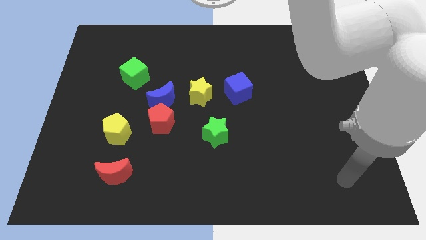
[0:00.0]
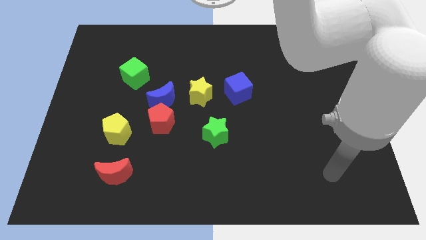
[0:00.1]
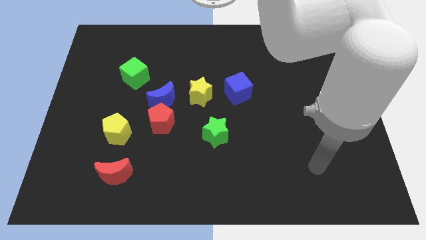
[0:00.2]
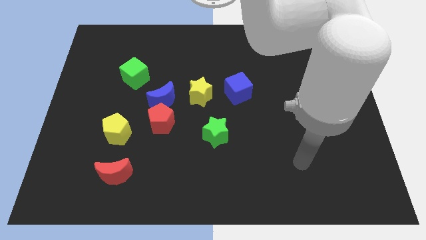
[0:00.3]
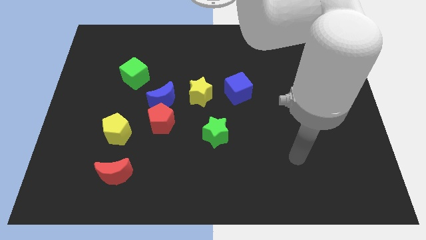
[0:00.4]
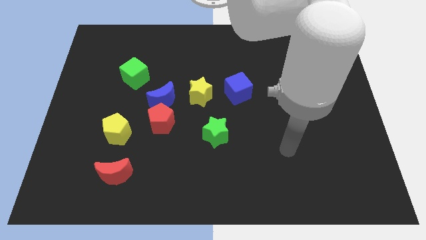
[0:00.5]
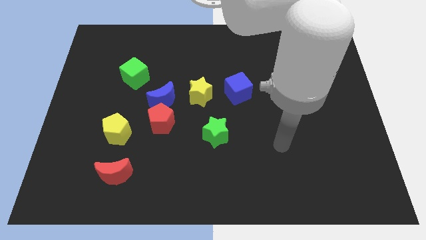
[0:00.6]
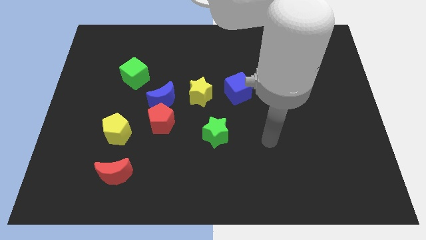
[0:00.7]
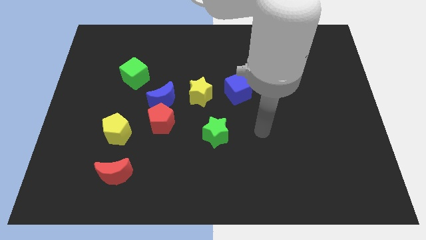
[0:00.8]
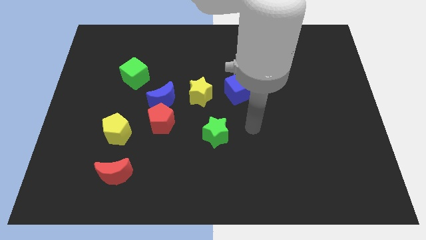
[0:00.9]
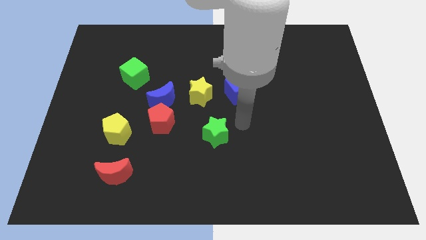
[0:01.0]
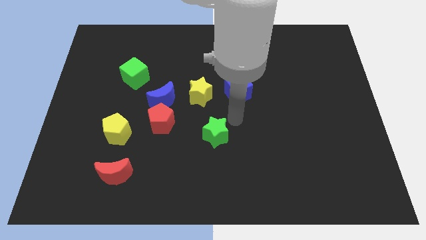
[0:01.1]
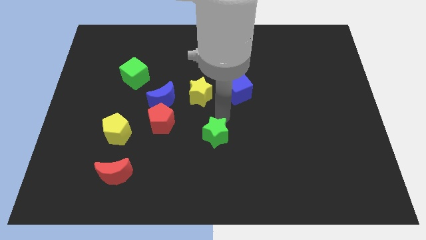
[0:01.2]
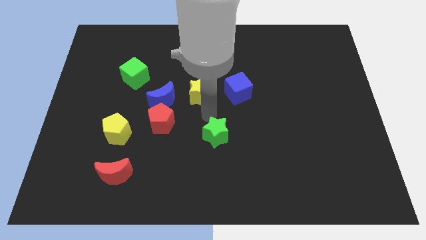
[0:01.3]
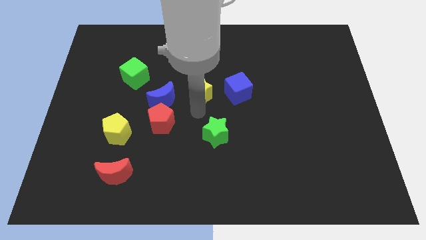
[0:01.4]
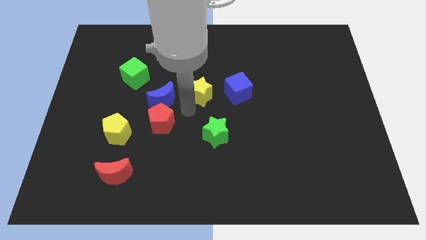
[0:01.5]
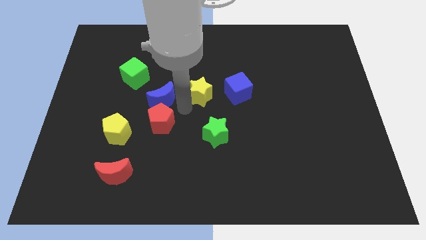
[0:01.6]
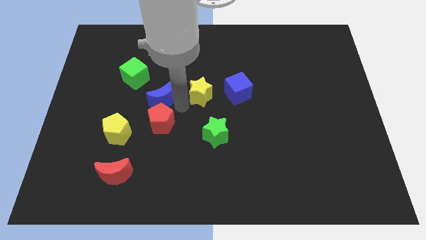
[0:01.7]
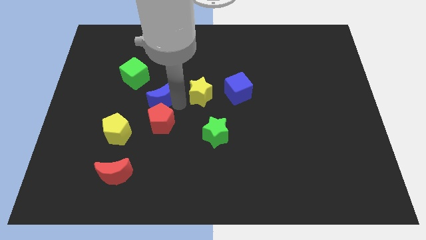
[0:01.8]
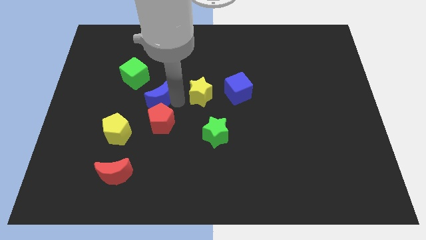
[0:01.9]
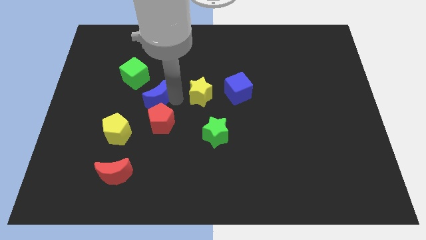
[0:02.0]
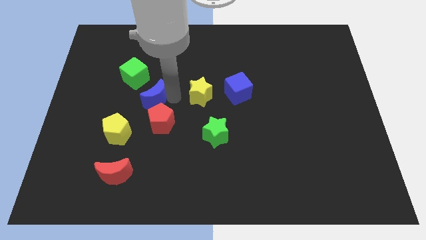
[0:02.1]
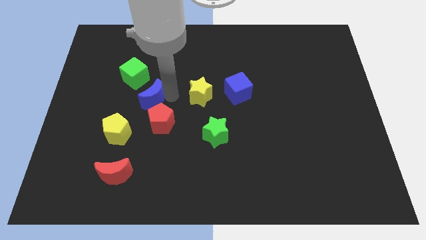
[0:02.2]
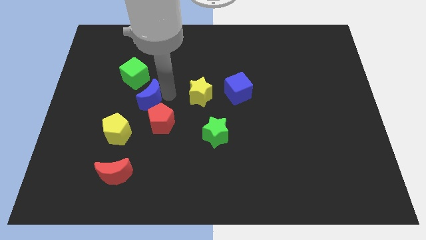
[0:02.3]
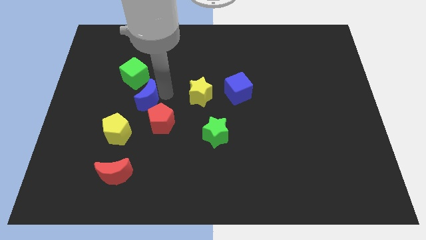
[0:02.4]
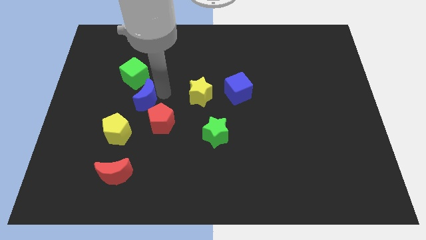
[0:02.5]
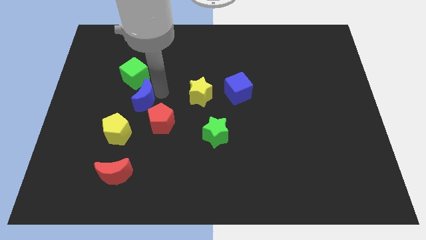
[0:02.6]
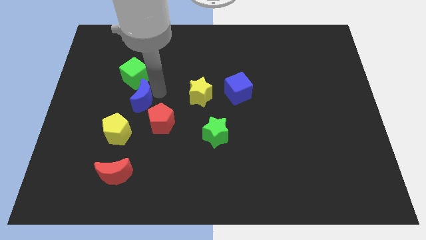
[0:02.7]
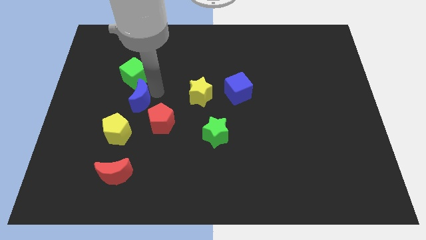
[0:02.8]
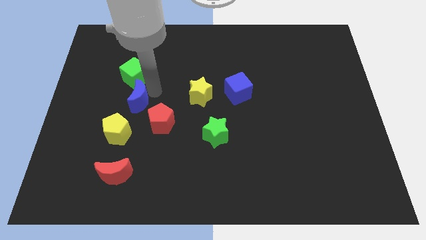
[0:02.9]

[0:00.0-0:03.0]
separate the blue moon from the red pentagon and yellow star

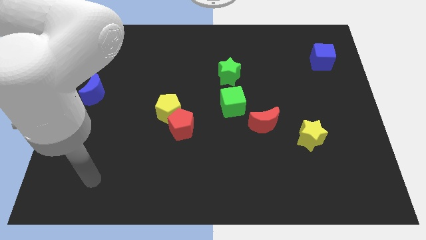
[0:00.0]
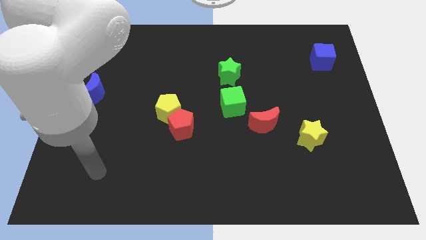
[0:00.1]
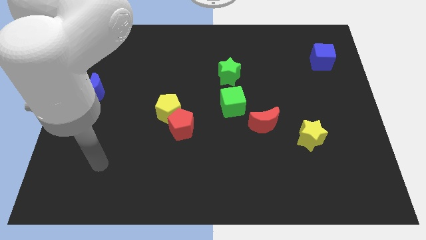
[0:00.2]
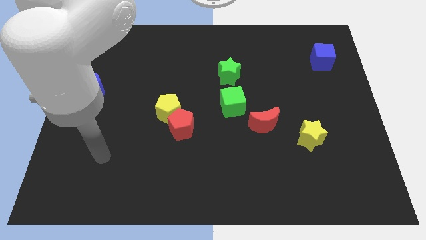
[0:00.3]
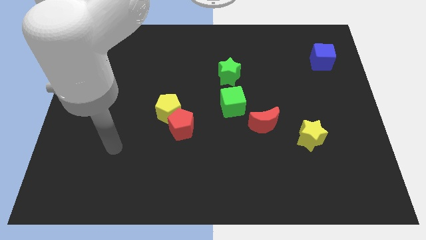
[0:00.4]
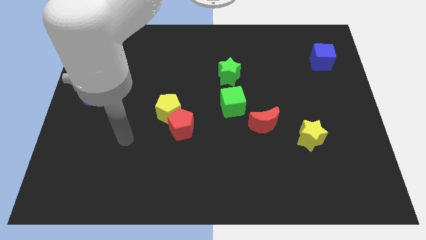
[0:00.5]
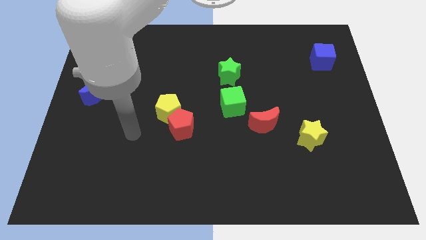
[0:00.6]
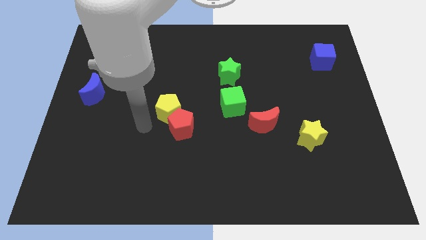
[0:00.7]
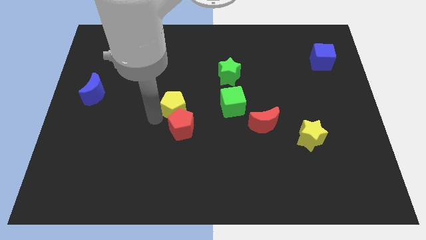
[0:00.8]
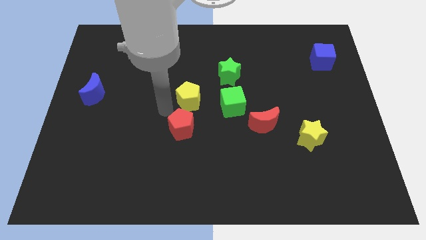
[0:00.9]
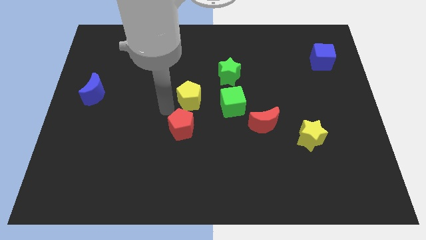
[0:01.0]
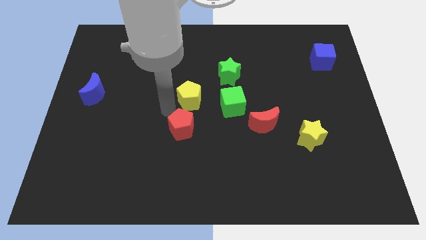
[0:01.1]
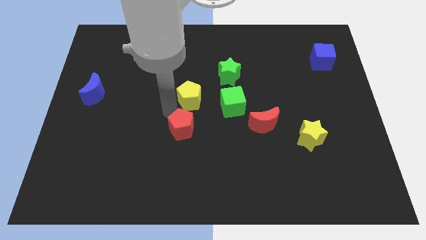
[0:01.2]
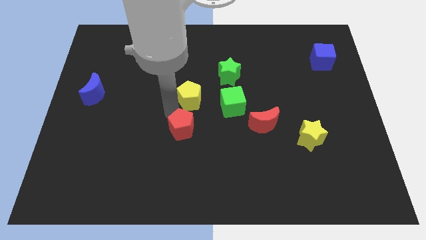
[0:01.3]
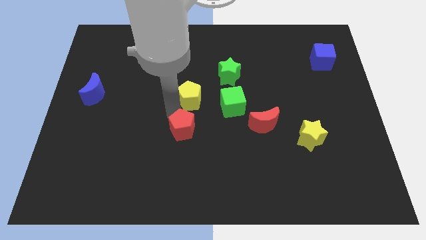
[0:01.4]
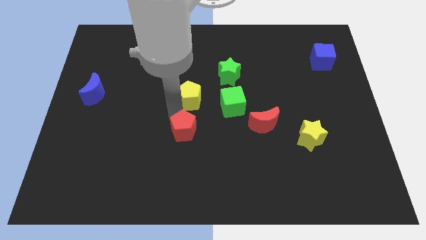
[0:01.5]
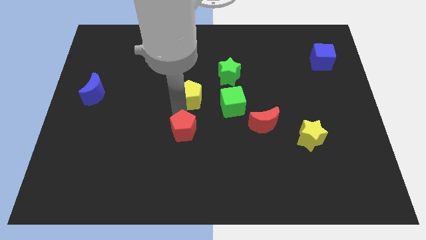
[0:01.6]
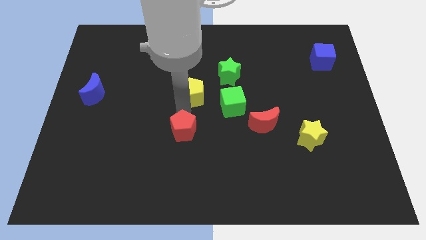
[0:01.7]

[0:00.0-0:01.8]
pull the red pentagon apart from the yellow pentagon

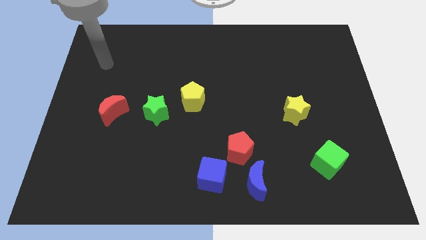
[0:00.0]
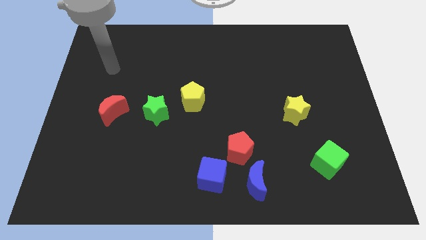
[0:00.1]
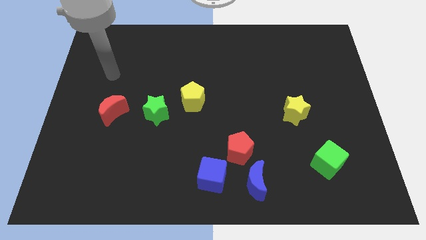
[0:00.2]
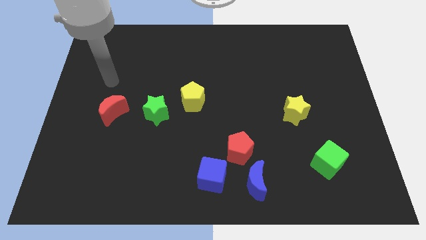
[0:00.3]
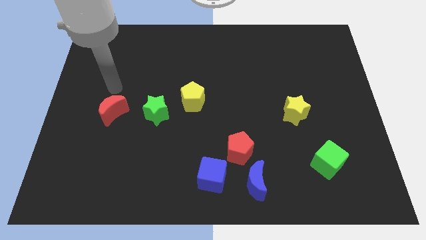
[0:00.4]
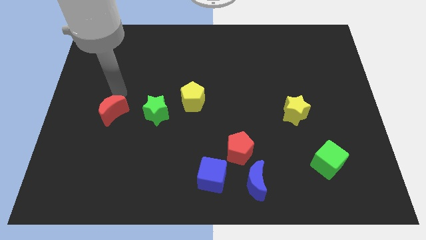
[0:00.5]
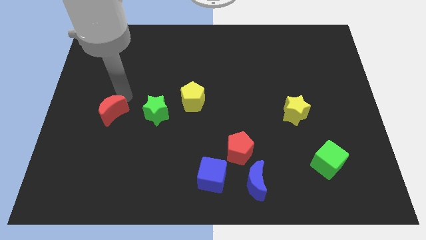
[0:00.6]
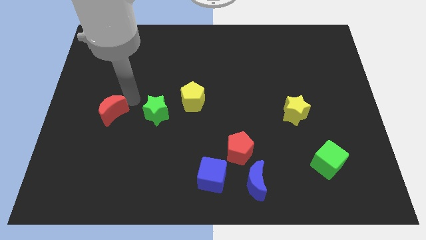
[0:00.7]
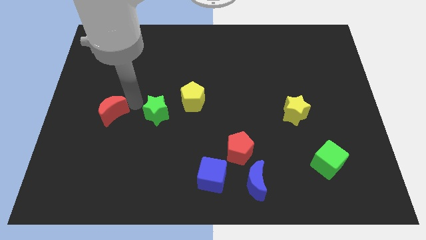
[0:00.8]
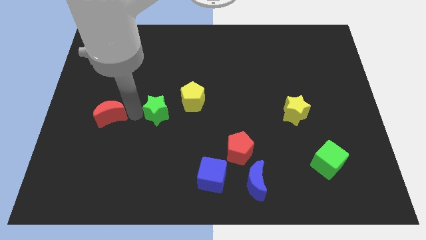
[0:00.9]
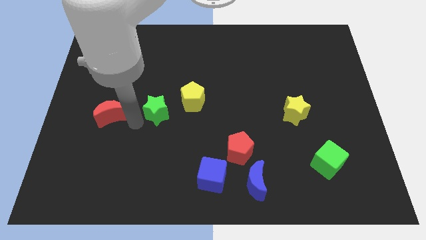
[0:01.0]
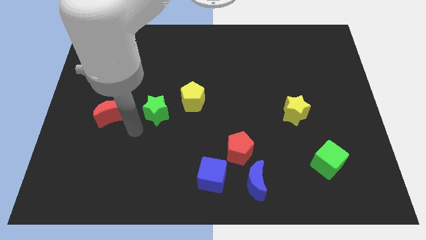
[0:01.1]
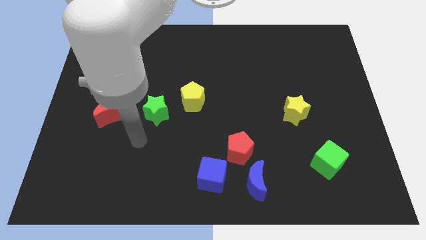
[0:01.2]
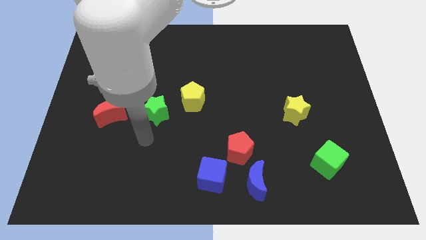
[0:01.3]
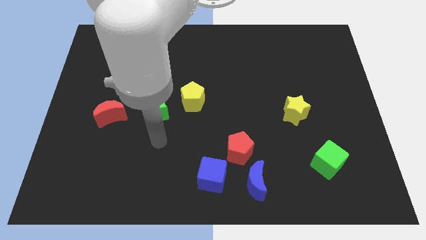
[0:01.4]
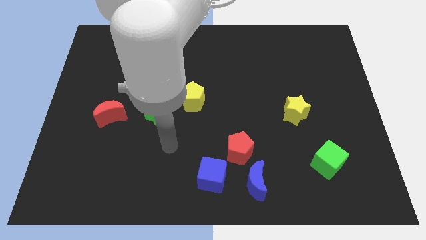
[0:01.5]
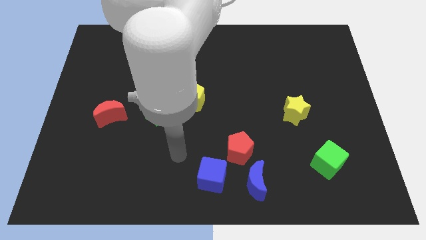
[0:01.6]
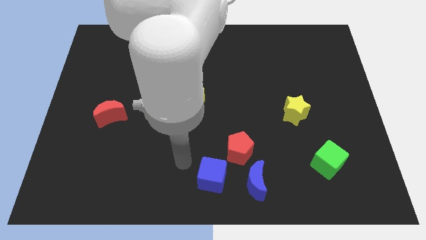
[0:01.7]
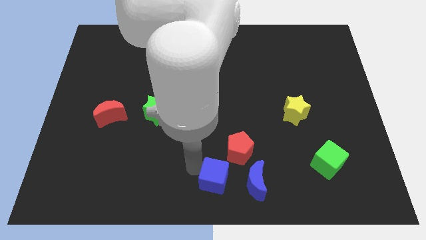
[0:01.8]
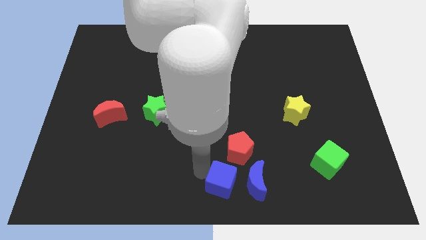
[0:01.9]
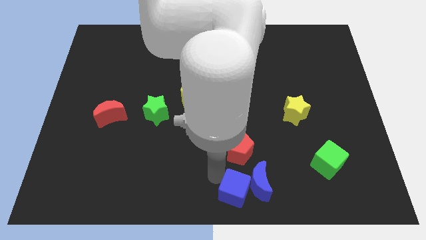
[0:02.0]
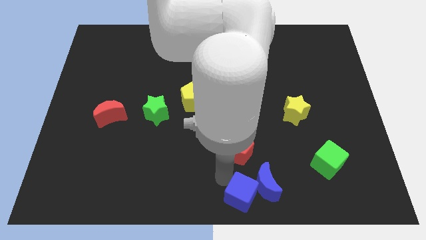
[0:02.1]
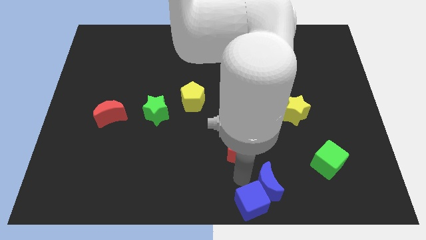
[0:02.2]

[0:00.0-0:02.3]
separate the red pentagon from the blue moon and blue cube

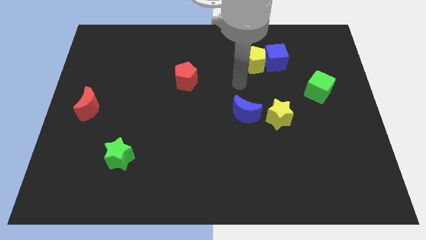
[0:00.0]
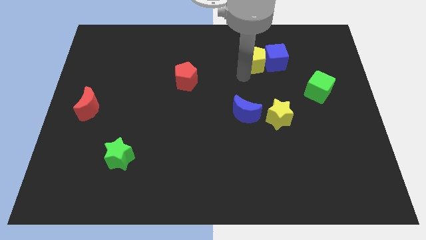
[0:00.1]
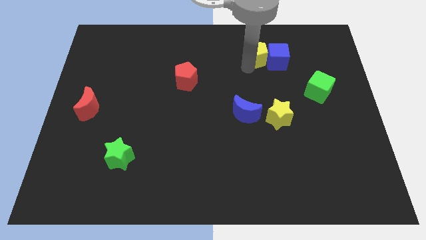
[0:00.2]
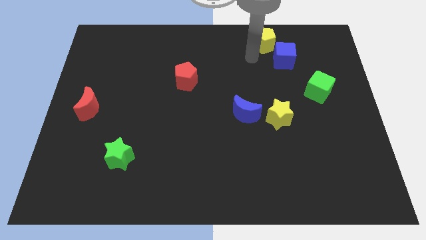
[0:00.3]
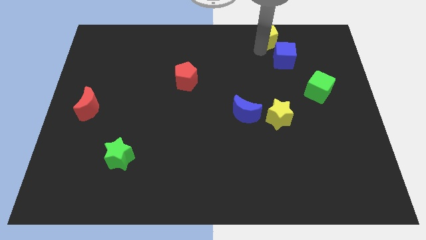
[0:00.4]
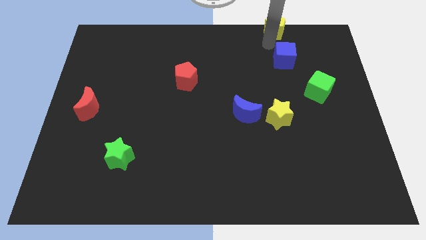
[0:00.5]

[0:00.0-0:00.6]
separate the blue cube from the yellow pentagon

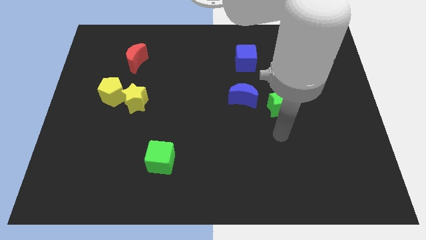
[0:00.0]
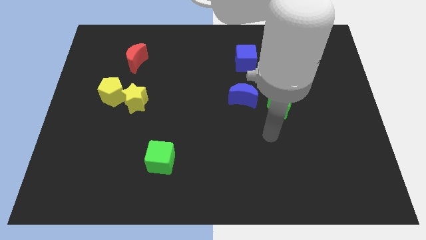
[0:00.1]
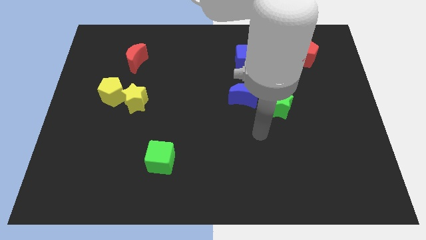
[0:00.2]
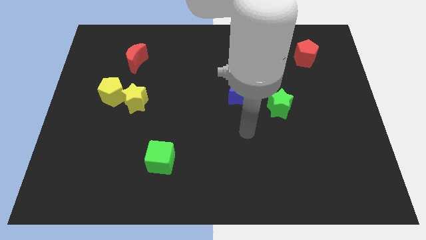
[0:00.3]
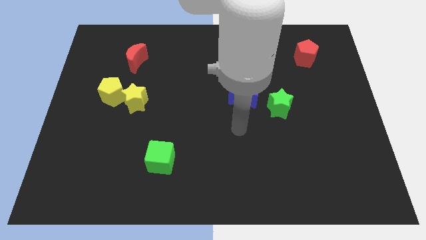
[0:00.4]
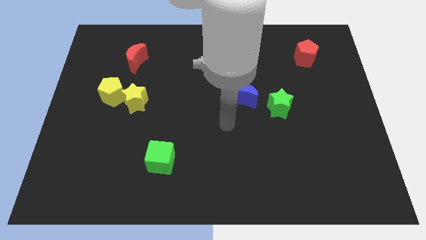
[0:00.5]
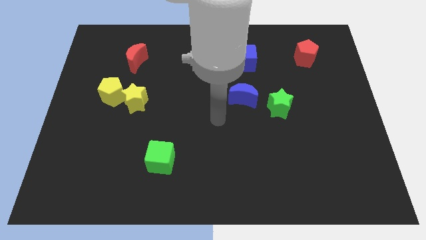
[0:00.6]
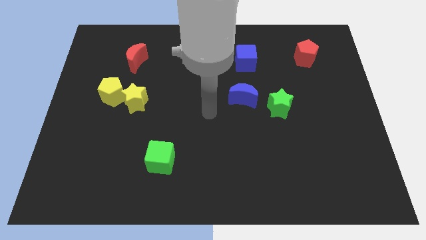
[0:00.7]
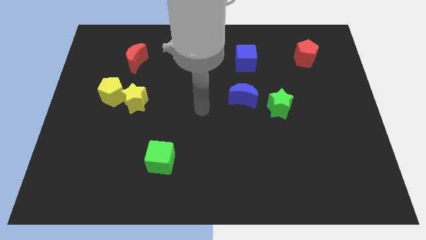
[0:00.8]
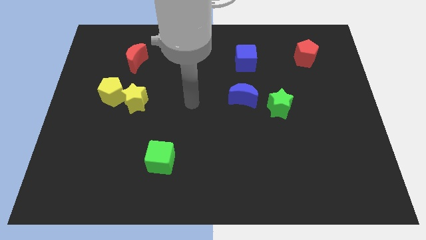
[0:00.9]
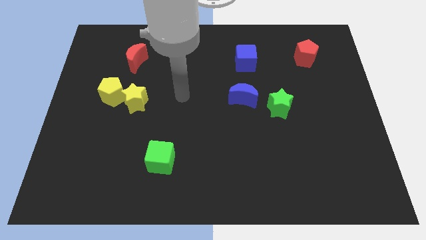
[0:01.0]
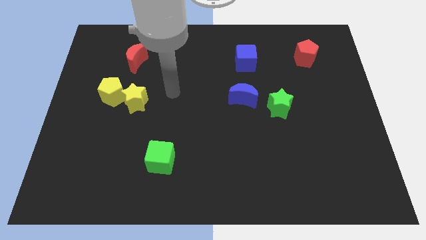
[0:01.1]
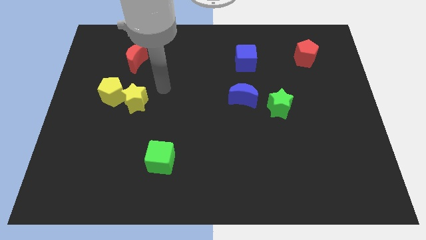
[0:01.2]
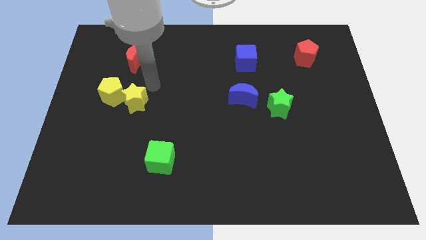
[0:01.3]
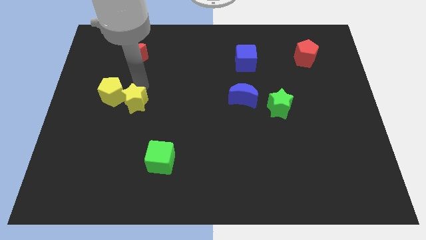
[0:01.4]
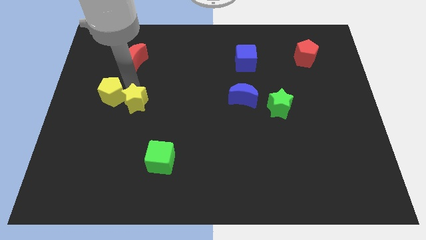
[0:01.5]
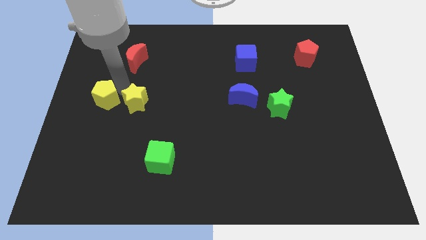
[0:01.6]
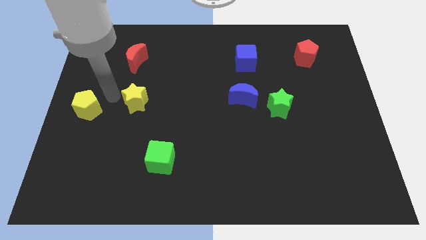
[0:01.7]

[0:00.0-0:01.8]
pull the yellow star apart from the yellow pentagon

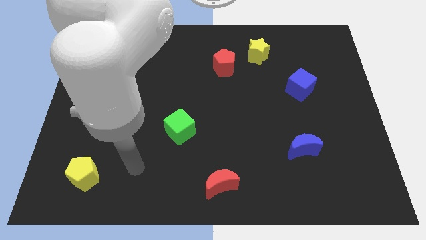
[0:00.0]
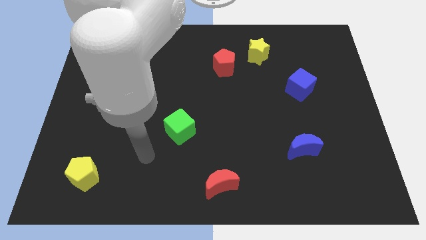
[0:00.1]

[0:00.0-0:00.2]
pull the red pentagon apart from the yellow star
